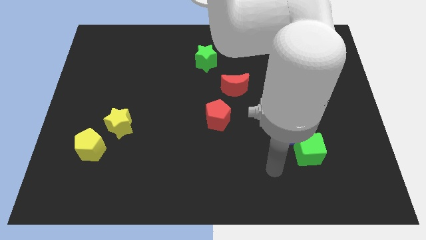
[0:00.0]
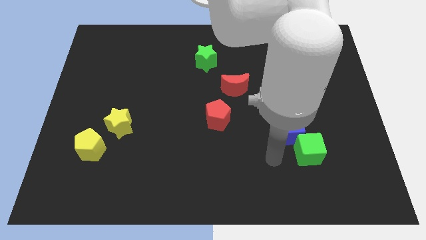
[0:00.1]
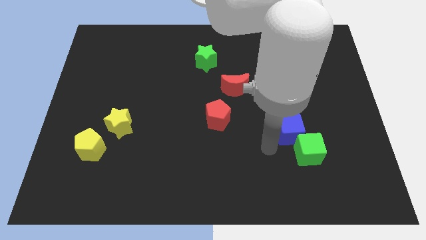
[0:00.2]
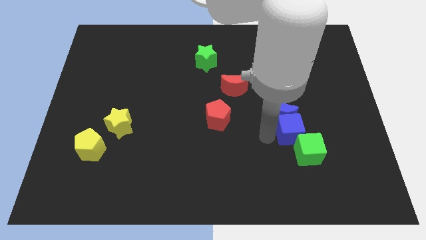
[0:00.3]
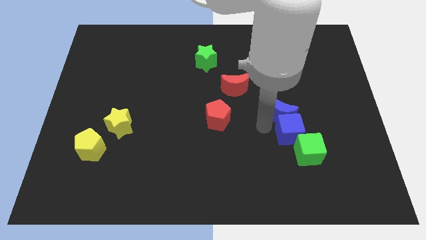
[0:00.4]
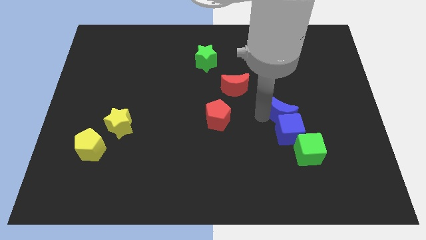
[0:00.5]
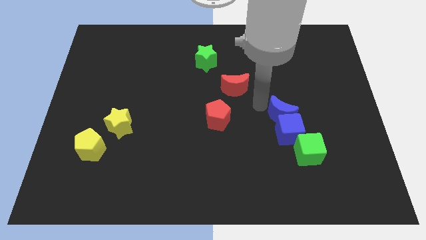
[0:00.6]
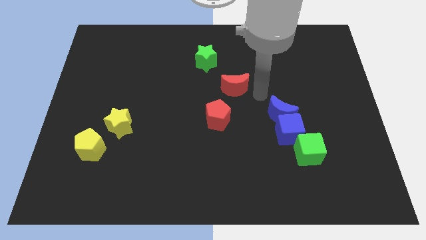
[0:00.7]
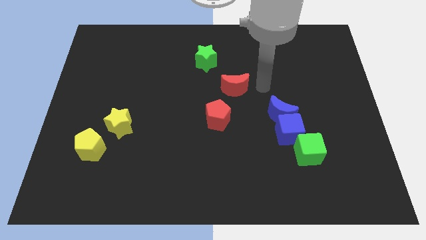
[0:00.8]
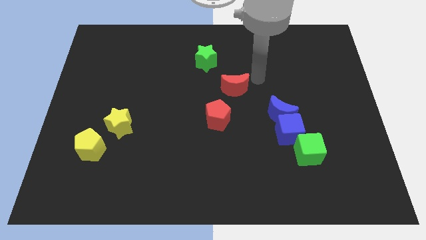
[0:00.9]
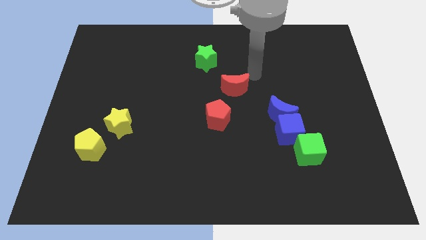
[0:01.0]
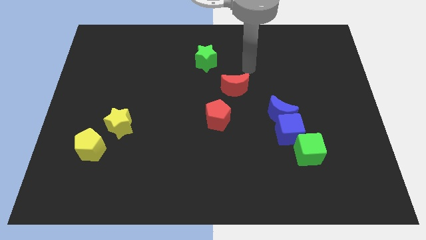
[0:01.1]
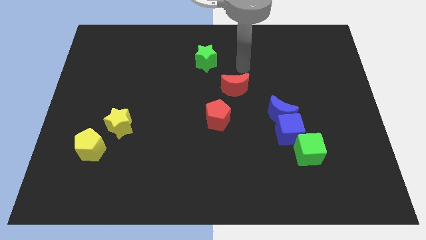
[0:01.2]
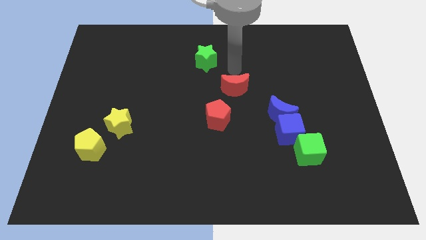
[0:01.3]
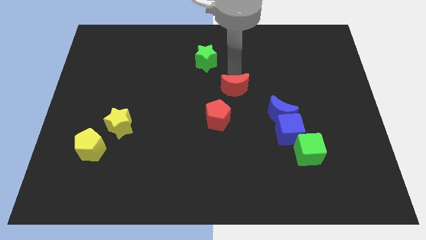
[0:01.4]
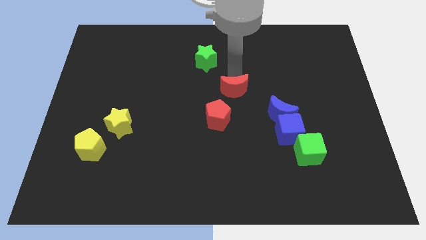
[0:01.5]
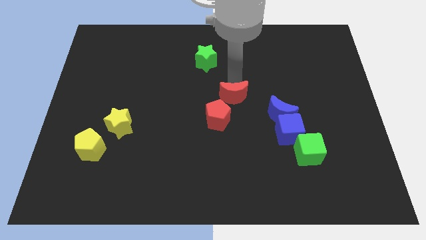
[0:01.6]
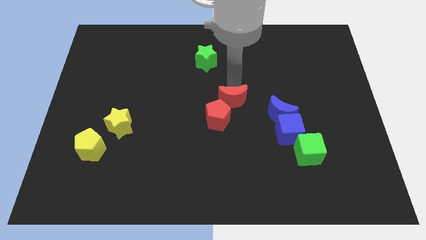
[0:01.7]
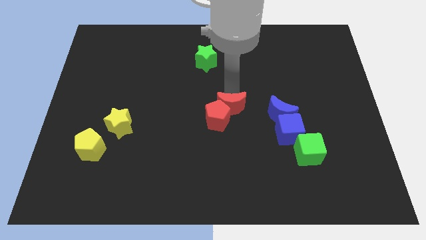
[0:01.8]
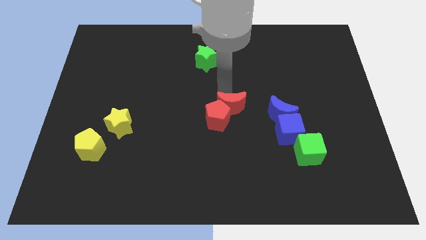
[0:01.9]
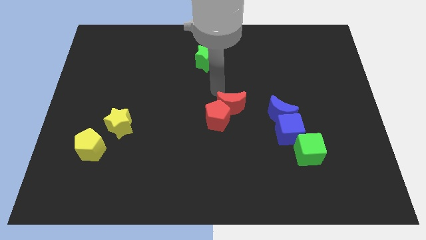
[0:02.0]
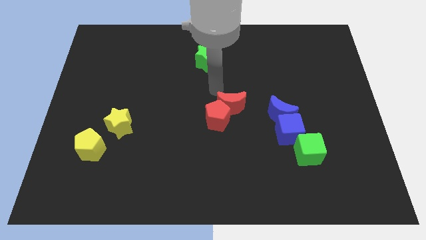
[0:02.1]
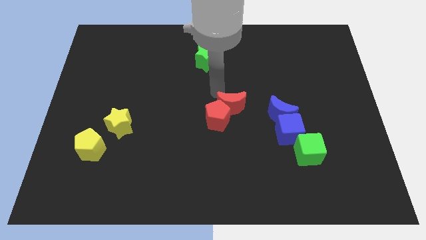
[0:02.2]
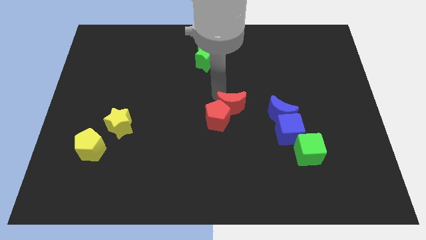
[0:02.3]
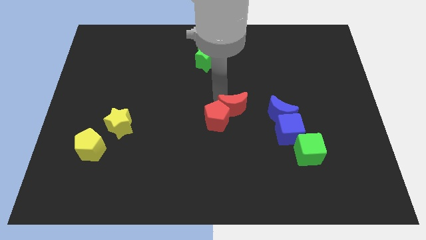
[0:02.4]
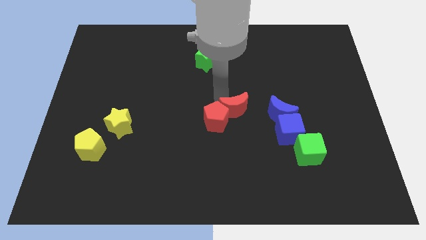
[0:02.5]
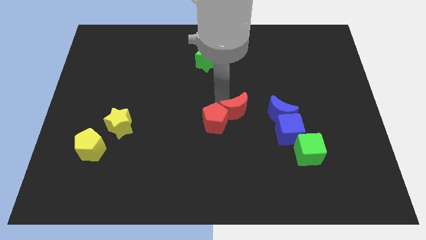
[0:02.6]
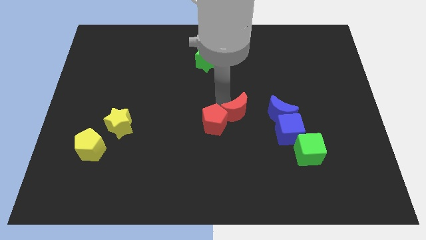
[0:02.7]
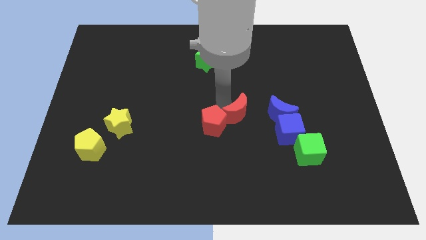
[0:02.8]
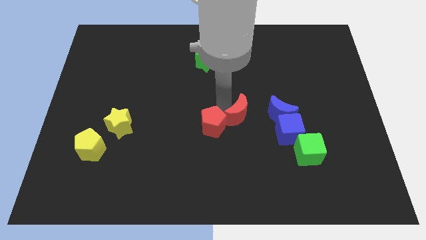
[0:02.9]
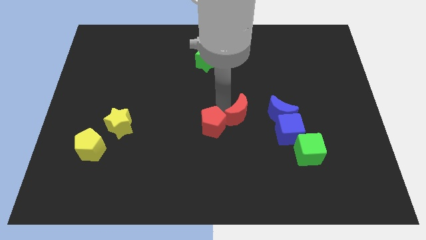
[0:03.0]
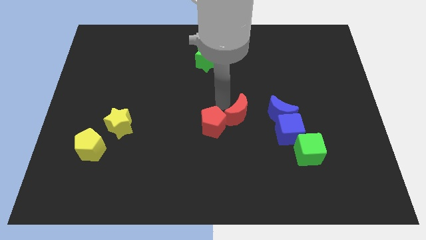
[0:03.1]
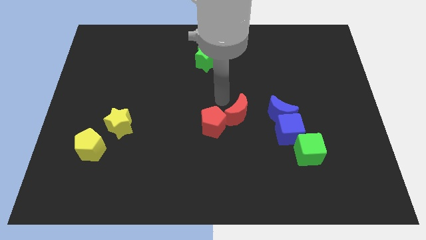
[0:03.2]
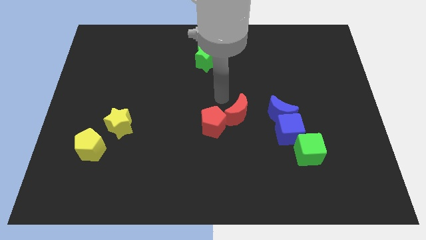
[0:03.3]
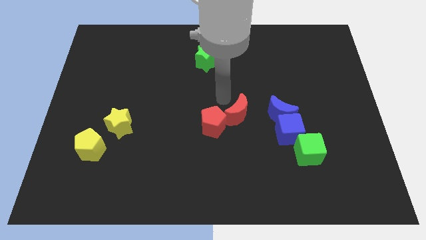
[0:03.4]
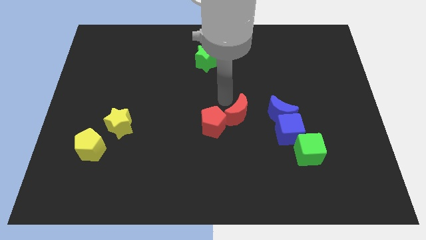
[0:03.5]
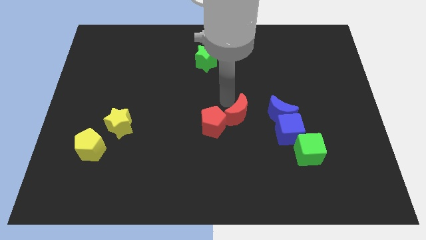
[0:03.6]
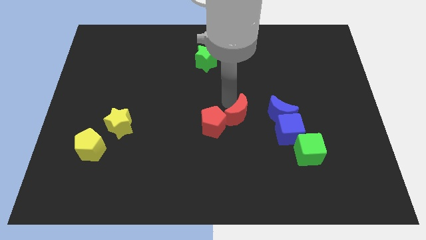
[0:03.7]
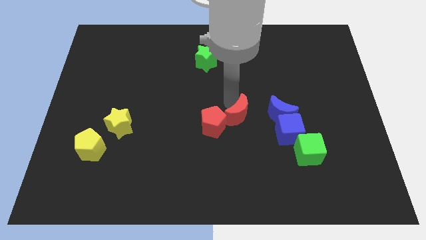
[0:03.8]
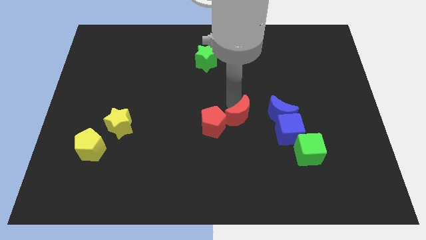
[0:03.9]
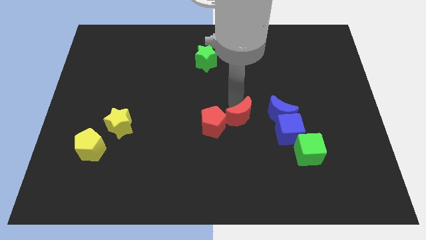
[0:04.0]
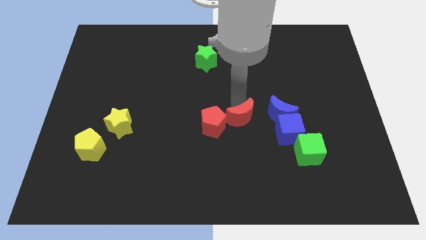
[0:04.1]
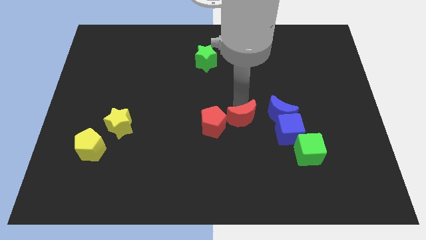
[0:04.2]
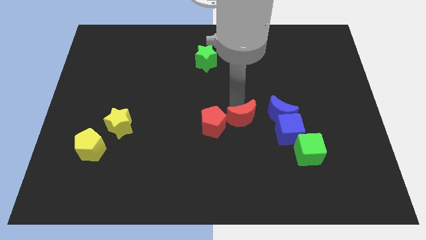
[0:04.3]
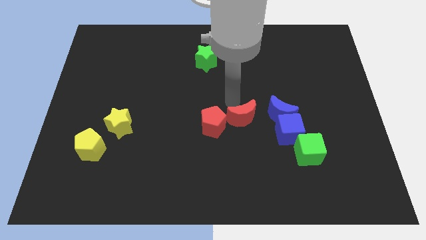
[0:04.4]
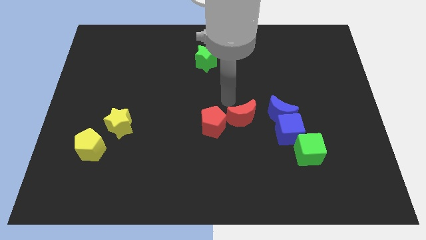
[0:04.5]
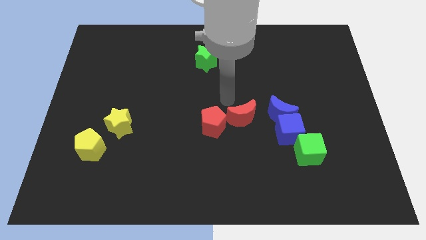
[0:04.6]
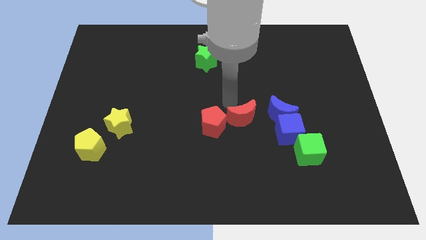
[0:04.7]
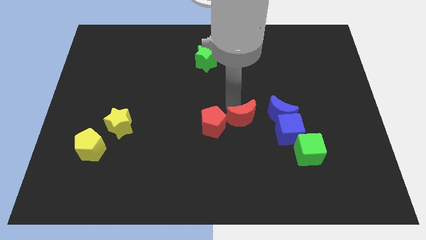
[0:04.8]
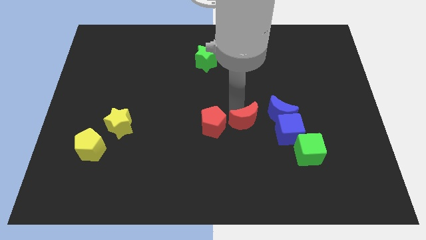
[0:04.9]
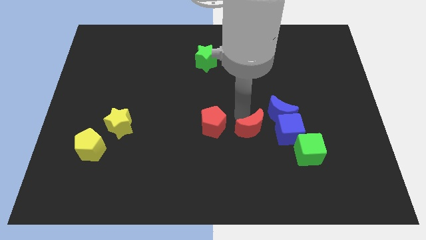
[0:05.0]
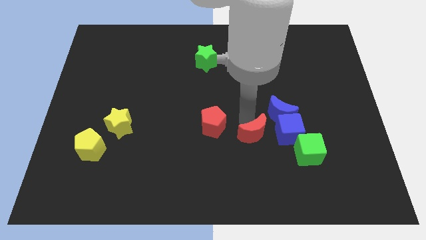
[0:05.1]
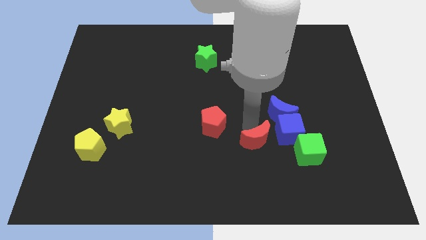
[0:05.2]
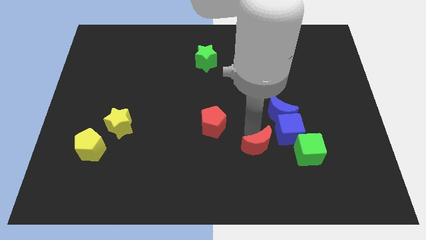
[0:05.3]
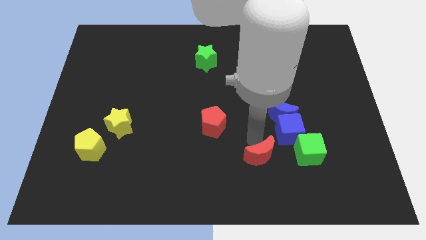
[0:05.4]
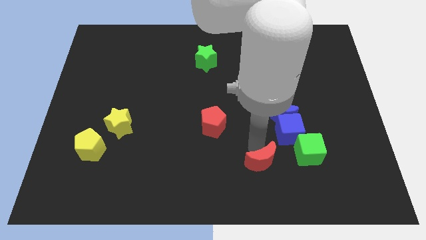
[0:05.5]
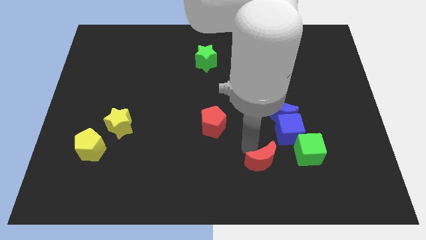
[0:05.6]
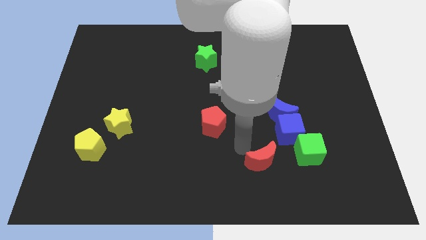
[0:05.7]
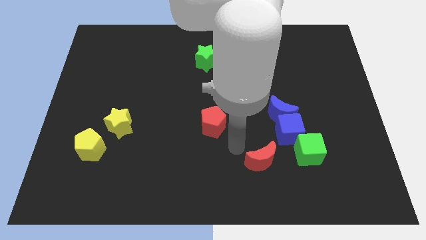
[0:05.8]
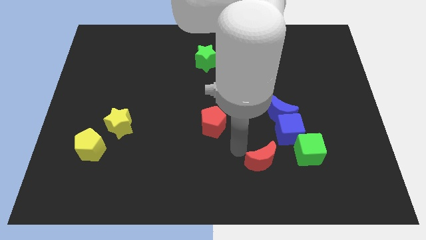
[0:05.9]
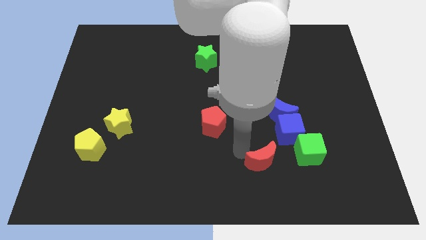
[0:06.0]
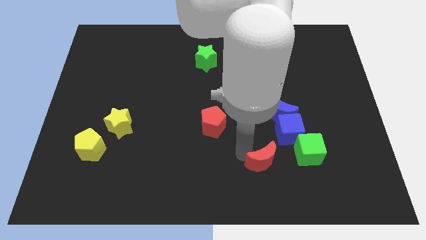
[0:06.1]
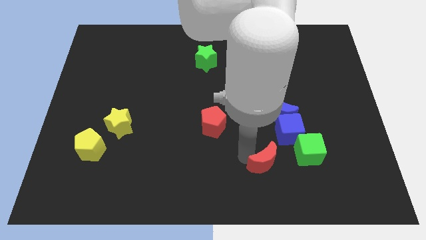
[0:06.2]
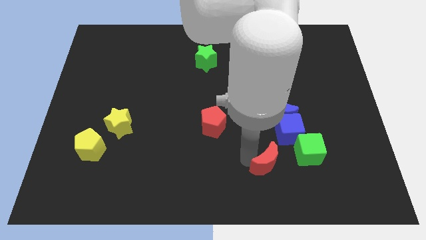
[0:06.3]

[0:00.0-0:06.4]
slide the red moon to the bottom left of the green cube
